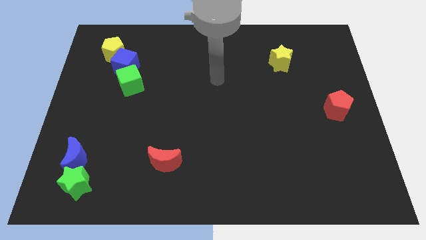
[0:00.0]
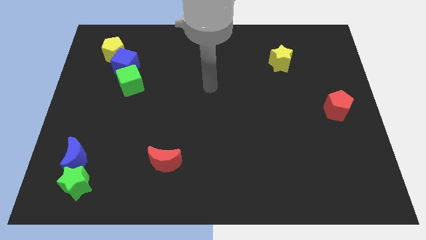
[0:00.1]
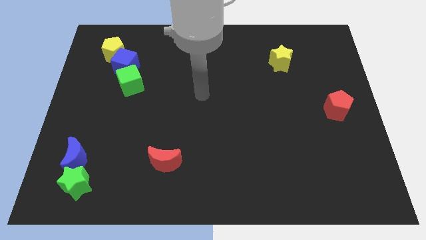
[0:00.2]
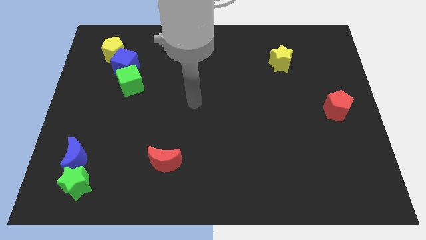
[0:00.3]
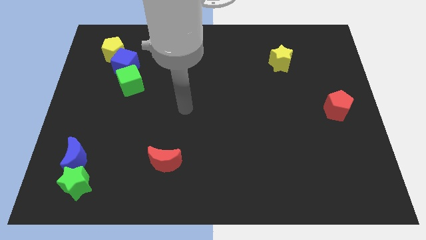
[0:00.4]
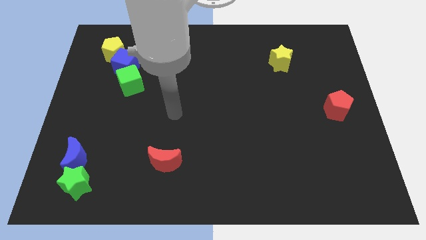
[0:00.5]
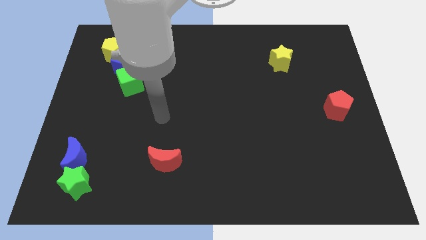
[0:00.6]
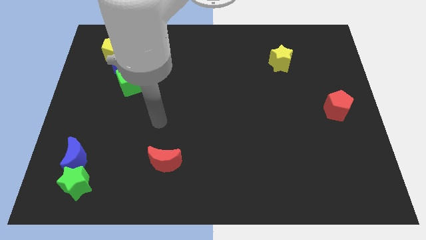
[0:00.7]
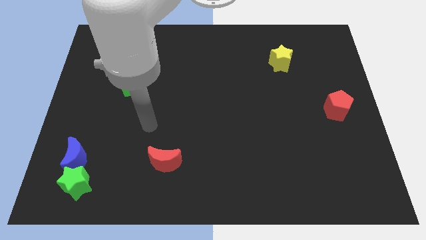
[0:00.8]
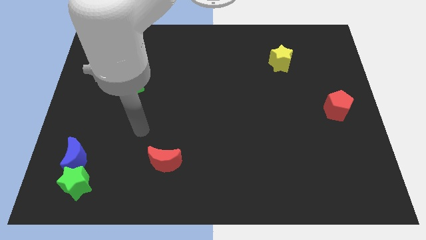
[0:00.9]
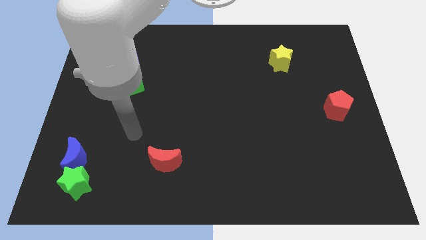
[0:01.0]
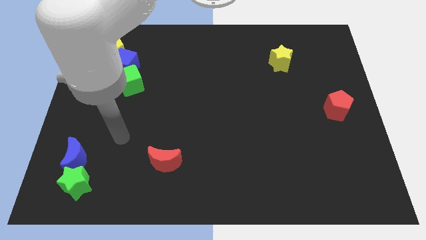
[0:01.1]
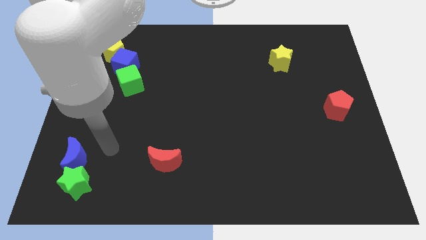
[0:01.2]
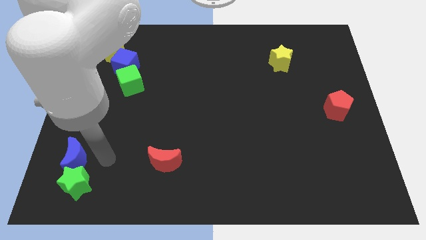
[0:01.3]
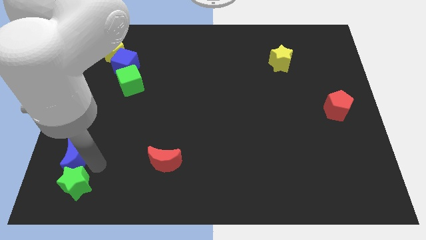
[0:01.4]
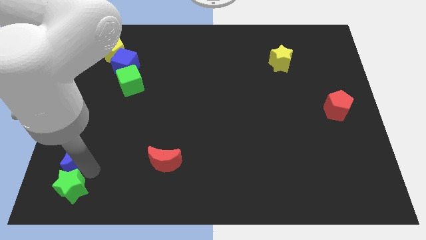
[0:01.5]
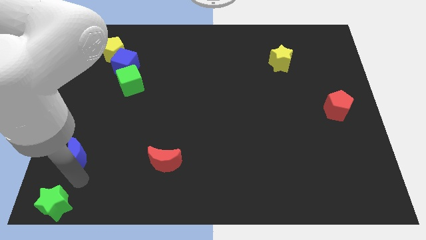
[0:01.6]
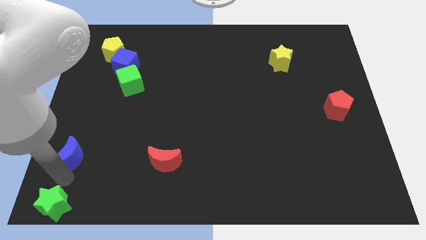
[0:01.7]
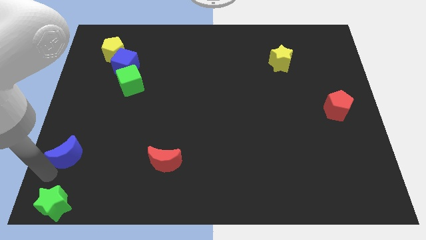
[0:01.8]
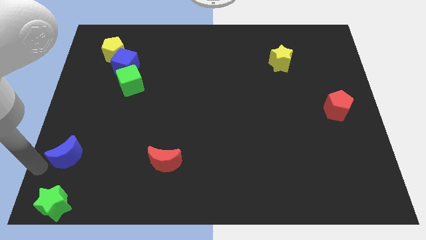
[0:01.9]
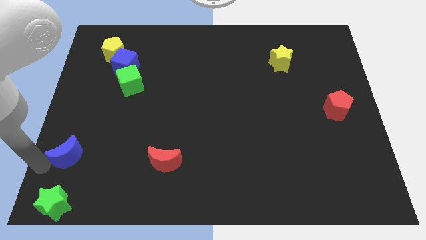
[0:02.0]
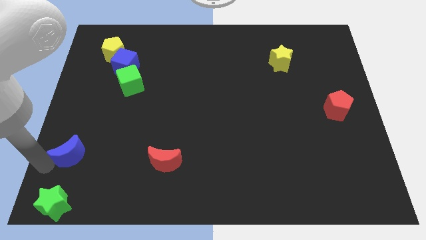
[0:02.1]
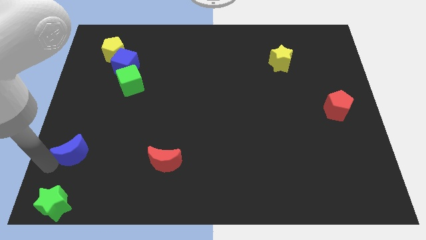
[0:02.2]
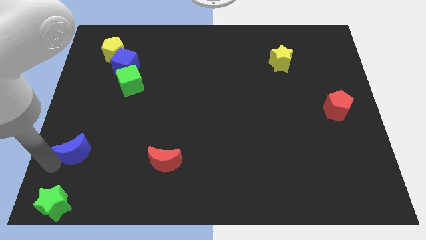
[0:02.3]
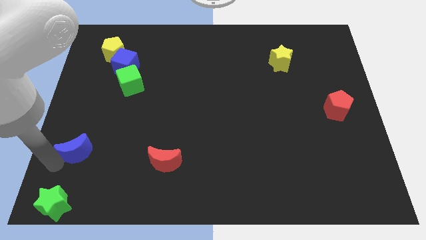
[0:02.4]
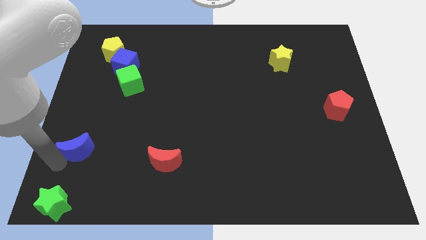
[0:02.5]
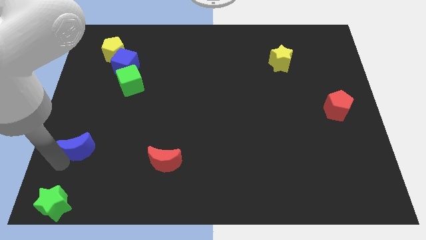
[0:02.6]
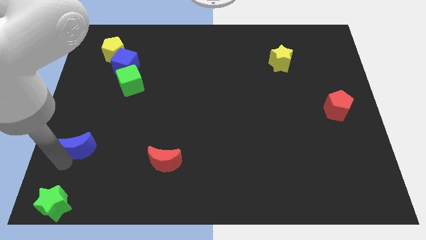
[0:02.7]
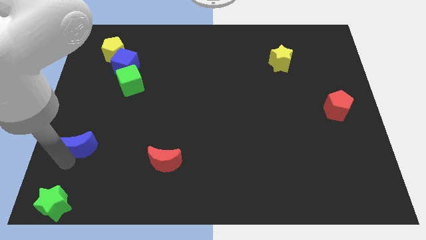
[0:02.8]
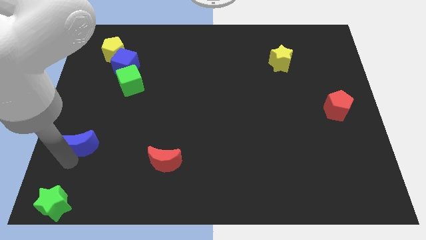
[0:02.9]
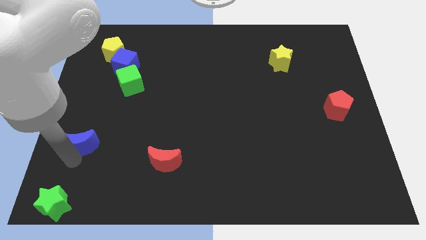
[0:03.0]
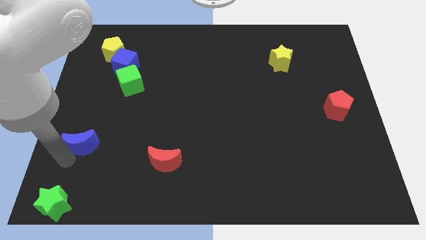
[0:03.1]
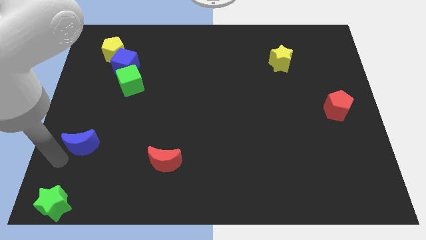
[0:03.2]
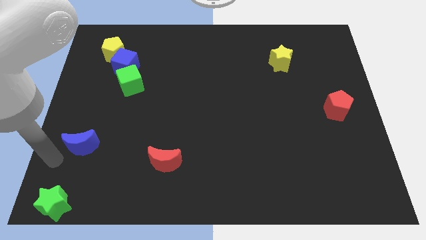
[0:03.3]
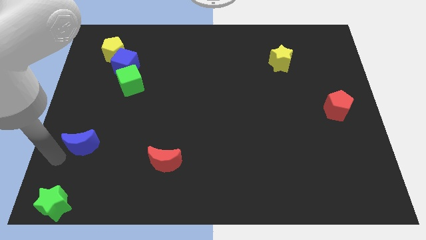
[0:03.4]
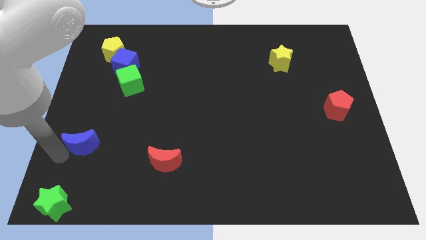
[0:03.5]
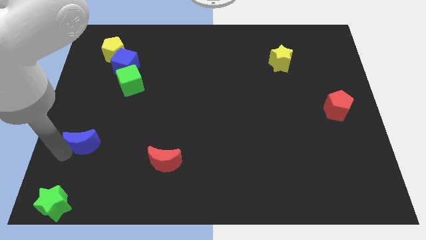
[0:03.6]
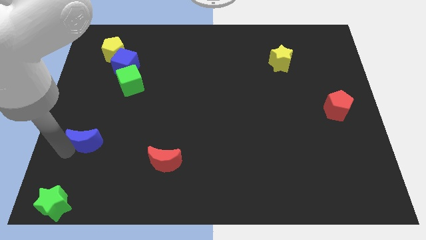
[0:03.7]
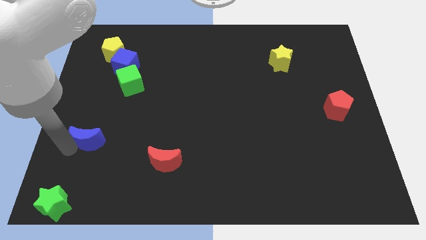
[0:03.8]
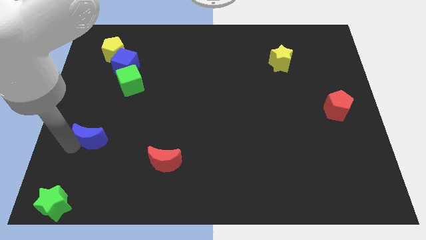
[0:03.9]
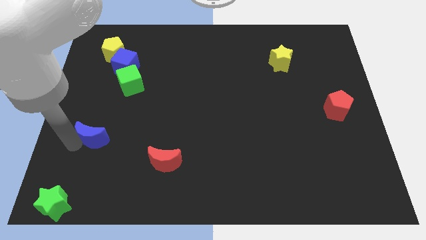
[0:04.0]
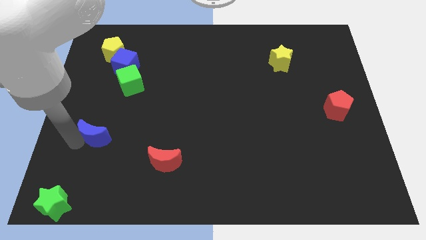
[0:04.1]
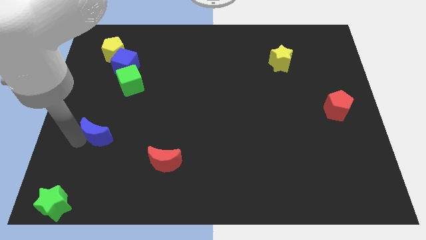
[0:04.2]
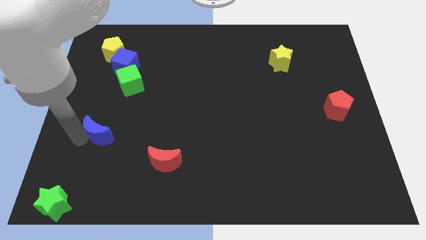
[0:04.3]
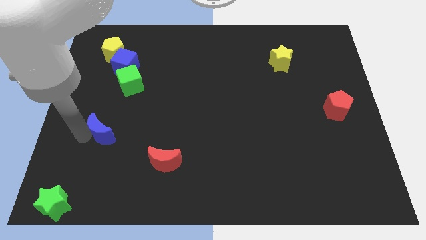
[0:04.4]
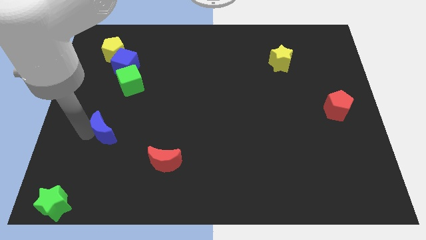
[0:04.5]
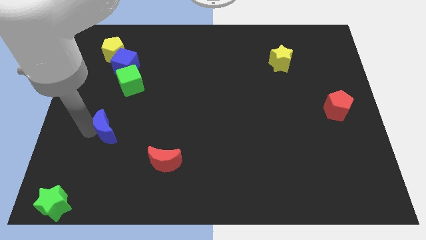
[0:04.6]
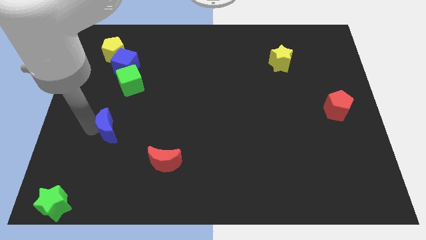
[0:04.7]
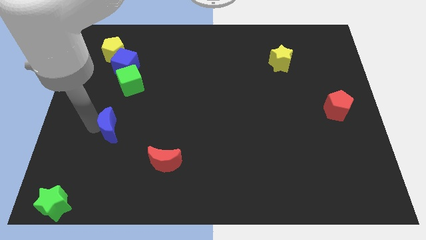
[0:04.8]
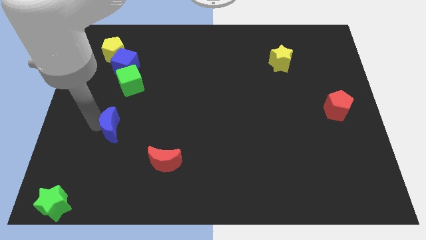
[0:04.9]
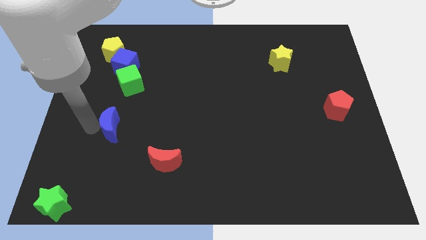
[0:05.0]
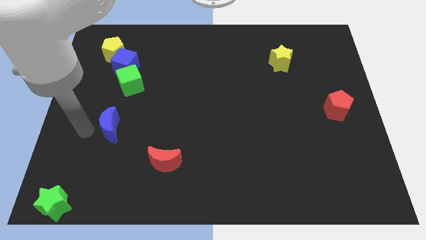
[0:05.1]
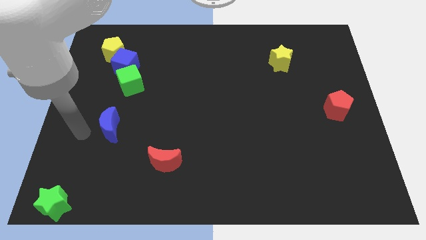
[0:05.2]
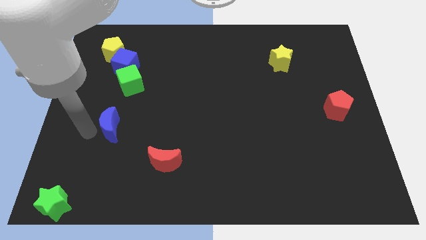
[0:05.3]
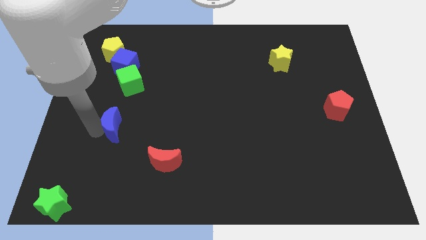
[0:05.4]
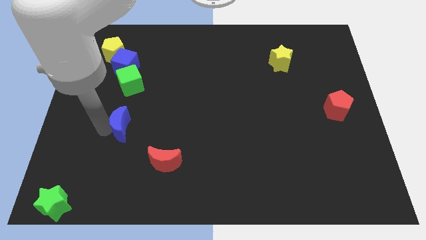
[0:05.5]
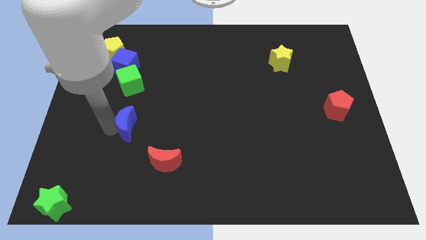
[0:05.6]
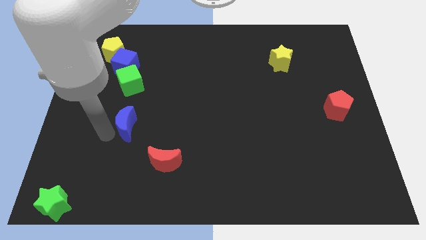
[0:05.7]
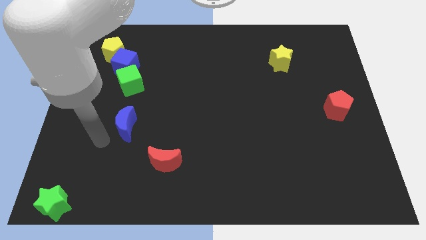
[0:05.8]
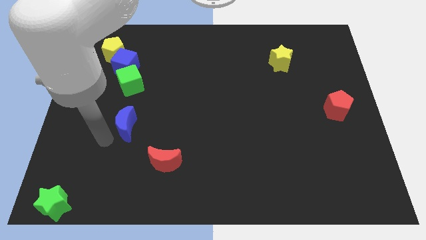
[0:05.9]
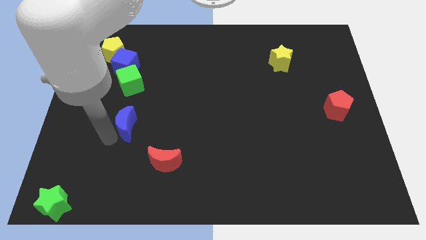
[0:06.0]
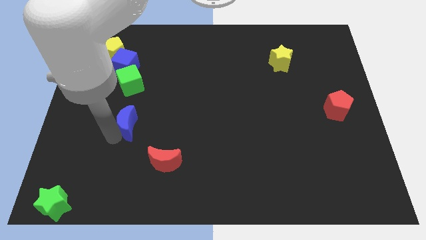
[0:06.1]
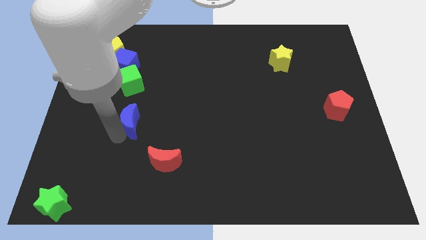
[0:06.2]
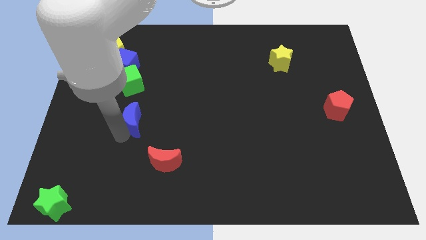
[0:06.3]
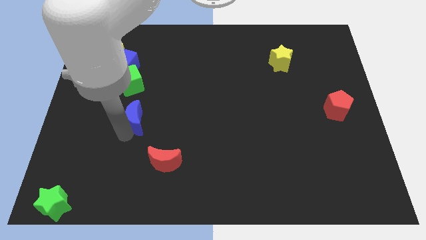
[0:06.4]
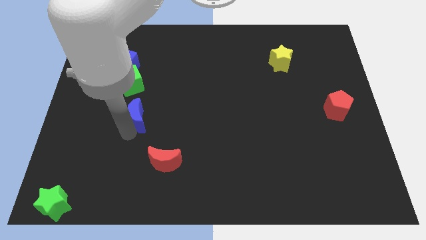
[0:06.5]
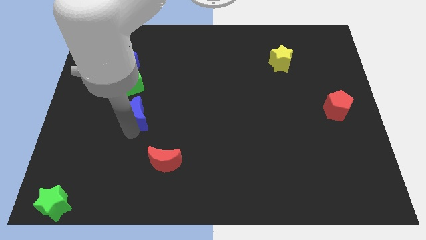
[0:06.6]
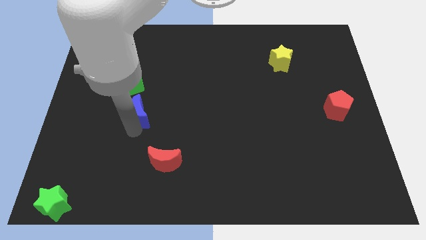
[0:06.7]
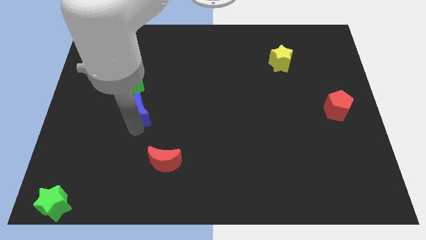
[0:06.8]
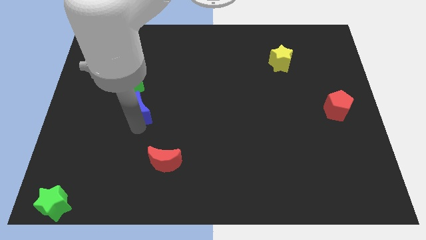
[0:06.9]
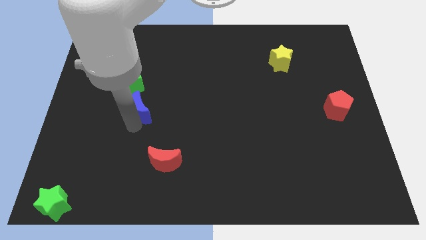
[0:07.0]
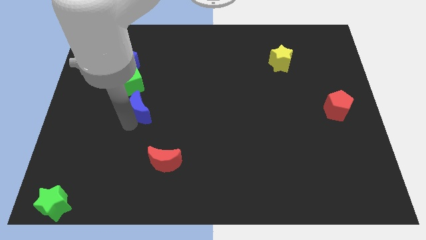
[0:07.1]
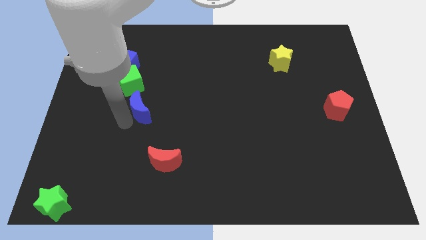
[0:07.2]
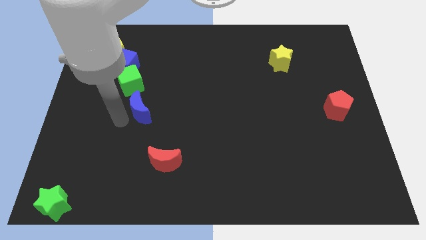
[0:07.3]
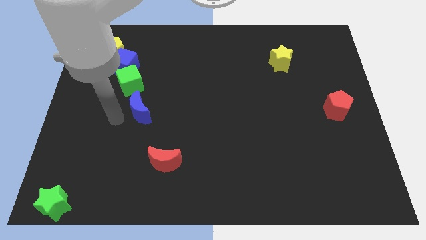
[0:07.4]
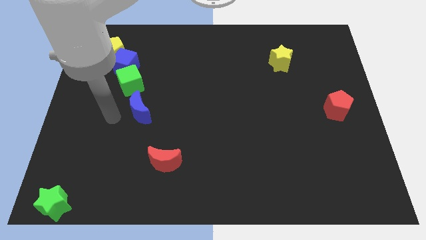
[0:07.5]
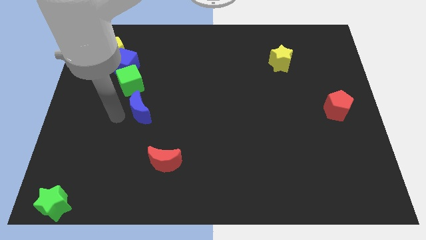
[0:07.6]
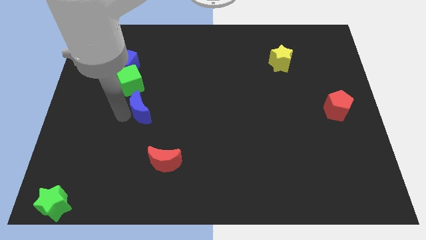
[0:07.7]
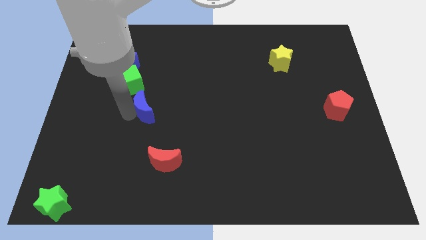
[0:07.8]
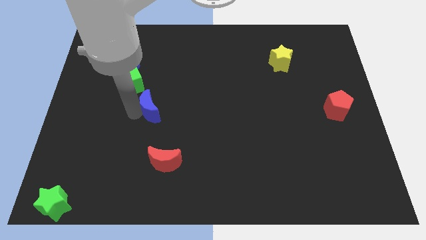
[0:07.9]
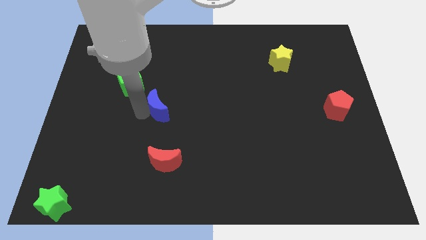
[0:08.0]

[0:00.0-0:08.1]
push the blue moon upwards and to the right diagonally

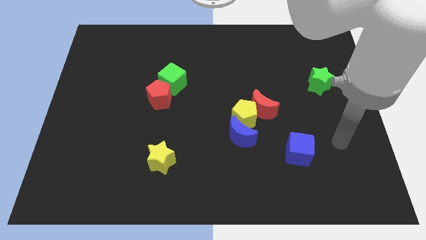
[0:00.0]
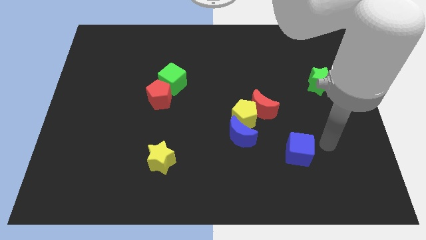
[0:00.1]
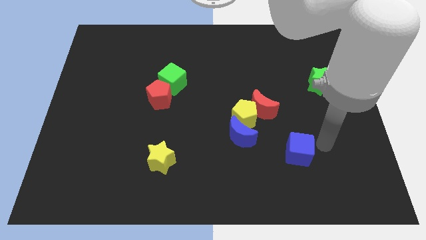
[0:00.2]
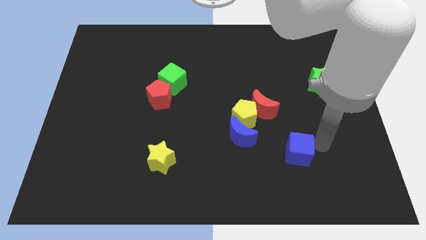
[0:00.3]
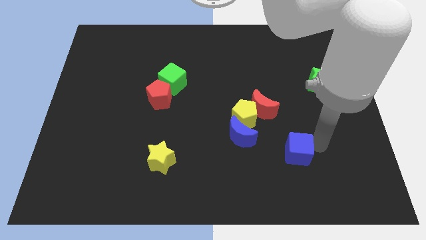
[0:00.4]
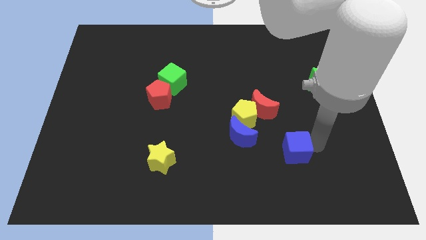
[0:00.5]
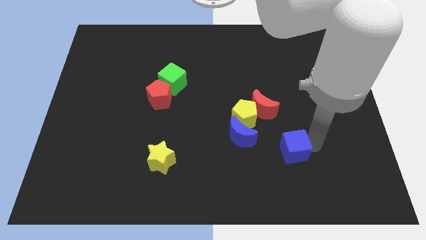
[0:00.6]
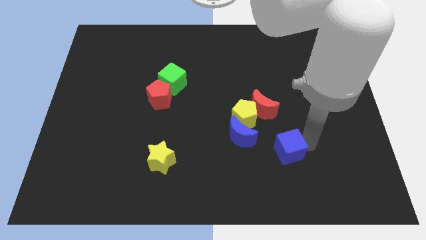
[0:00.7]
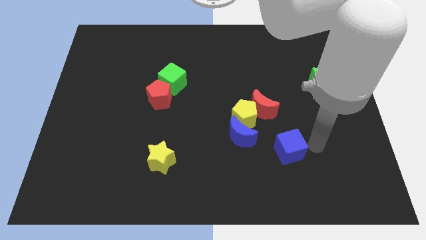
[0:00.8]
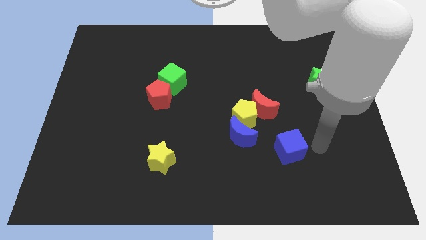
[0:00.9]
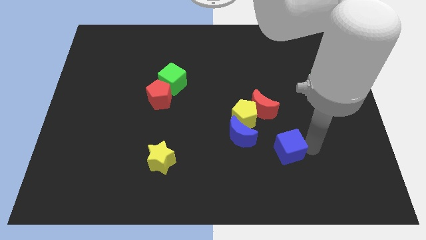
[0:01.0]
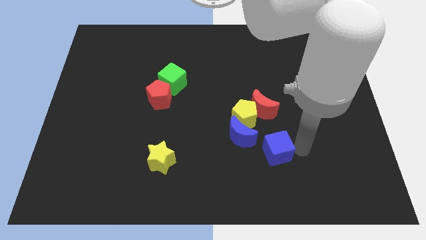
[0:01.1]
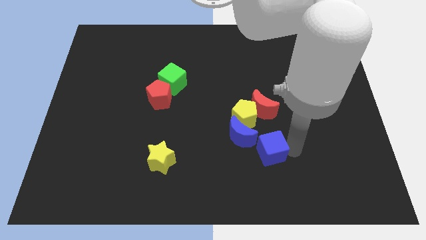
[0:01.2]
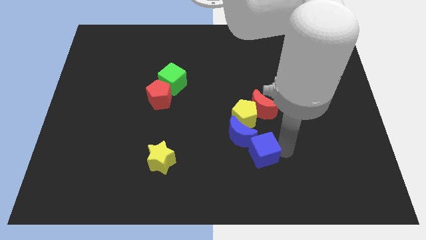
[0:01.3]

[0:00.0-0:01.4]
slide the blue cube somewhat to the left
